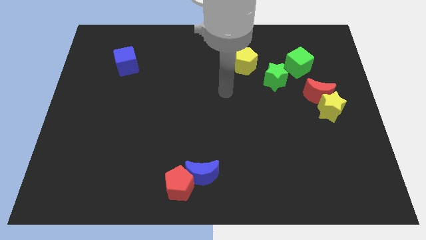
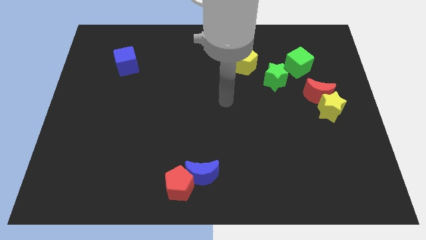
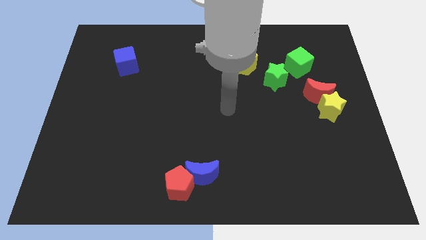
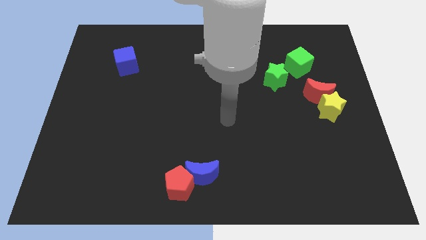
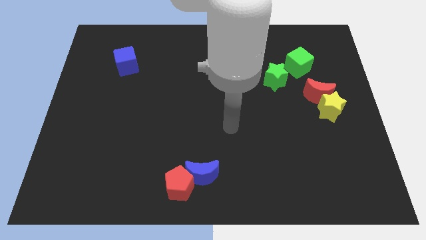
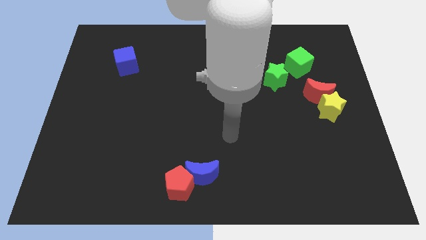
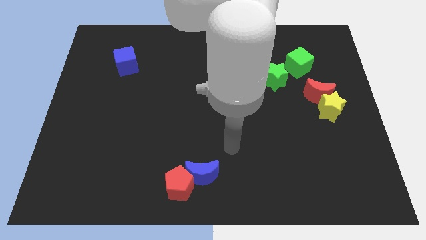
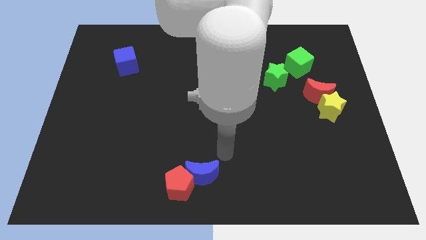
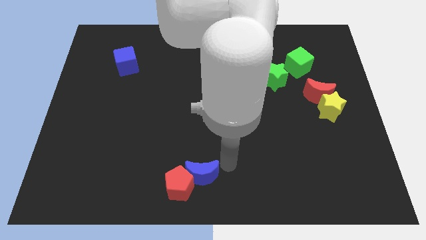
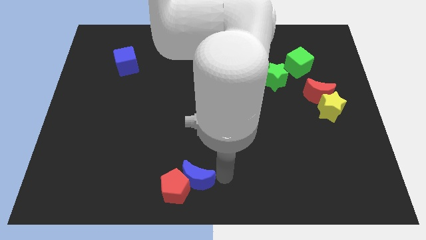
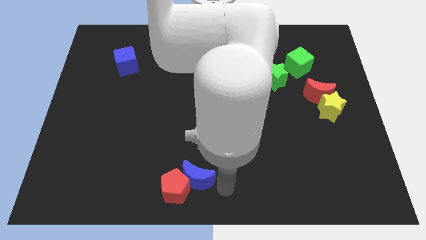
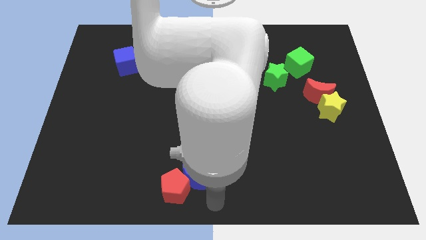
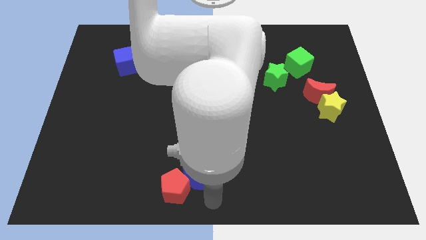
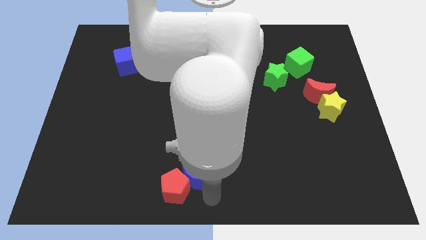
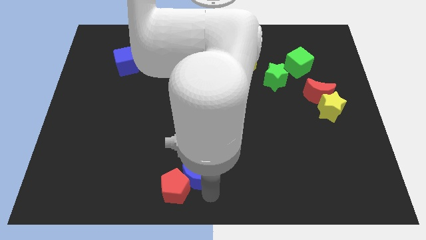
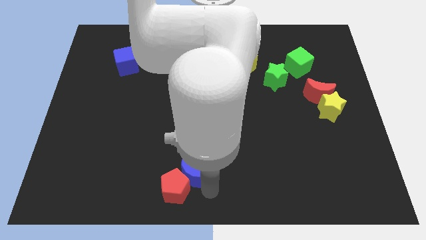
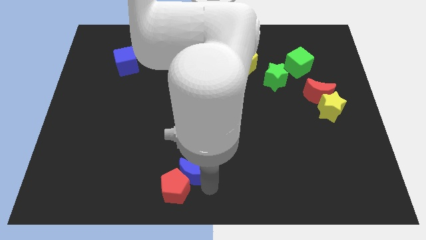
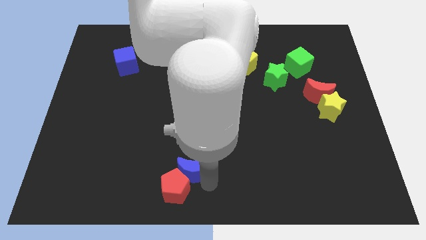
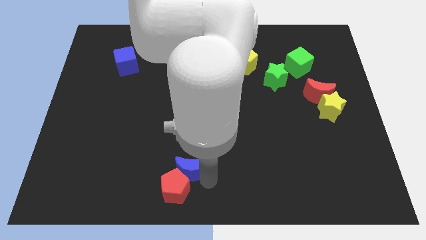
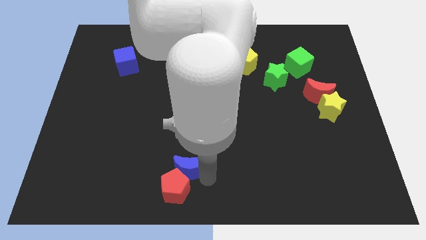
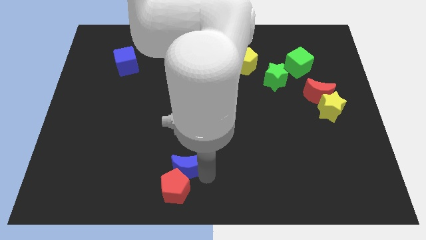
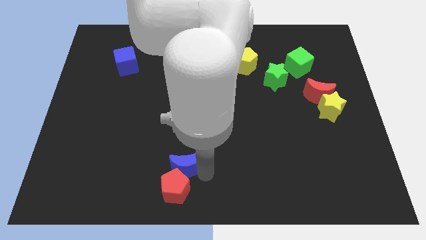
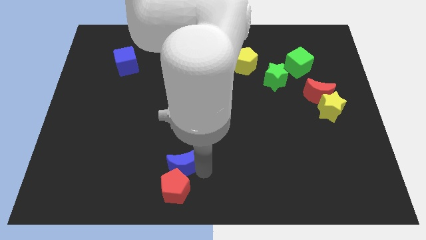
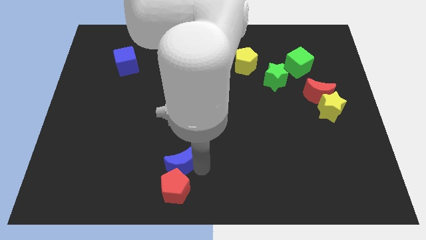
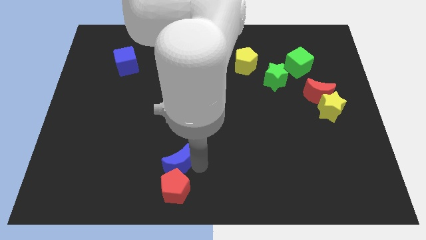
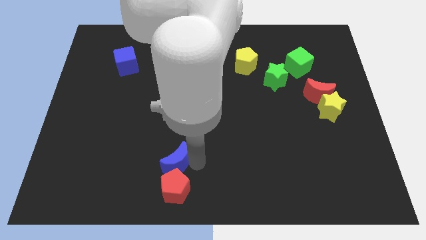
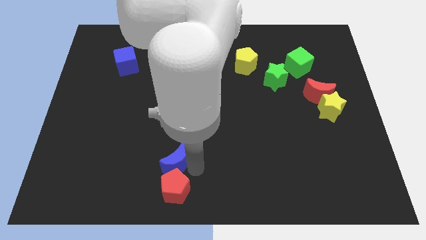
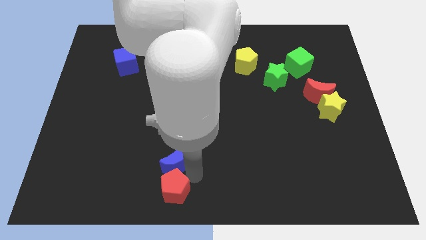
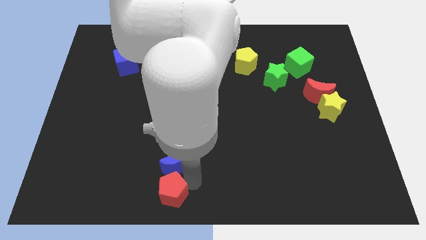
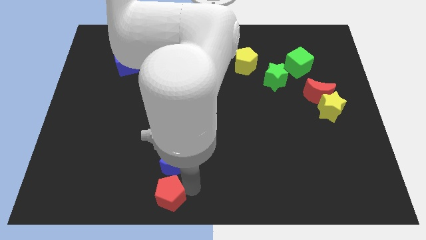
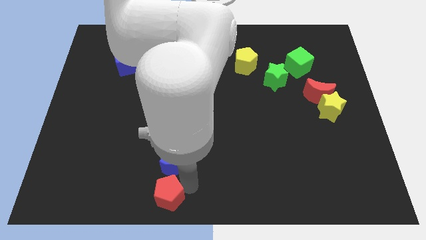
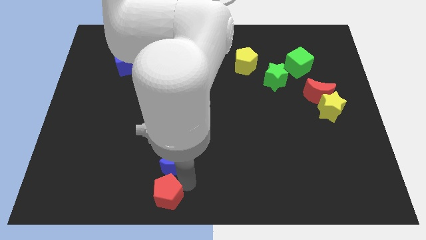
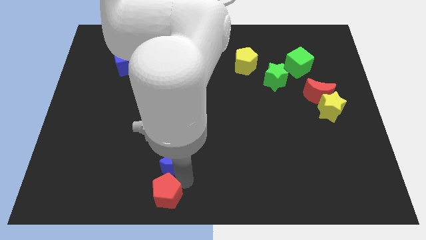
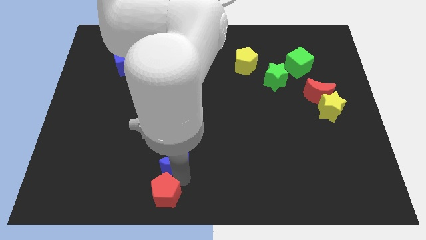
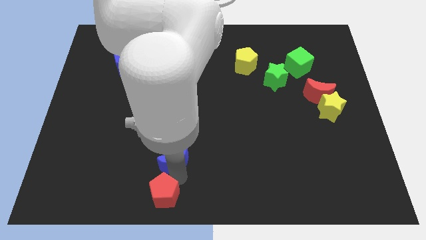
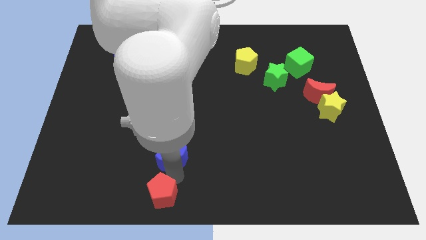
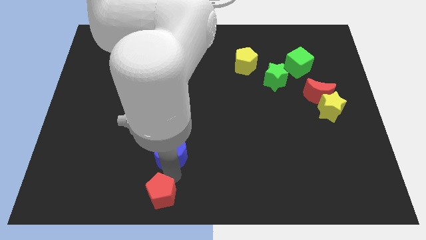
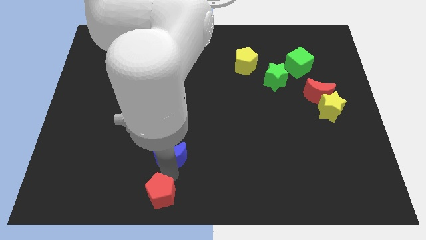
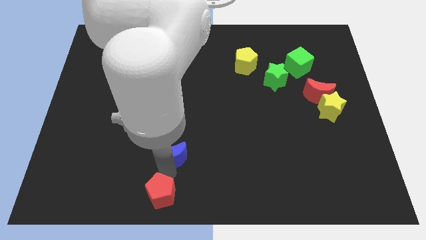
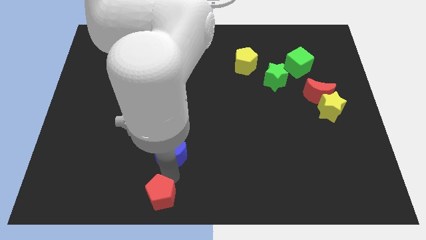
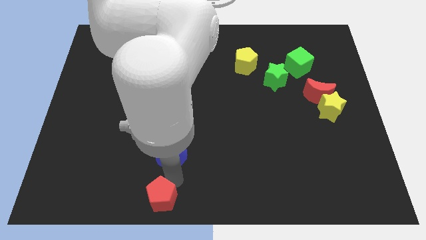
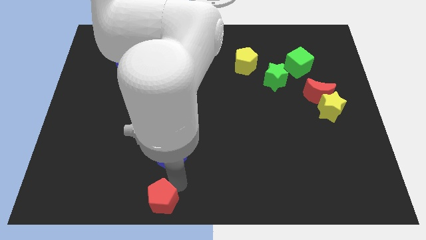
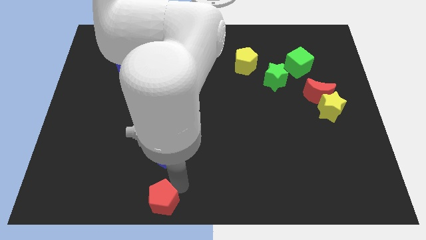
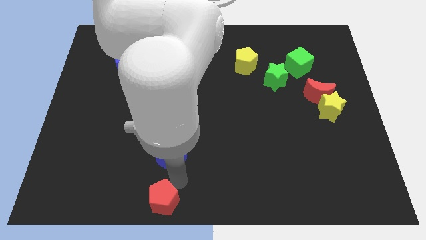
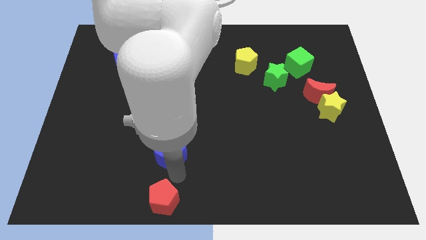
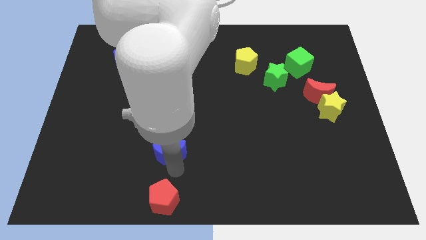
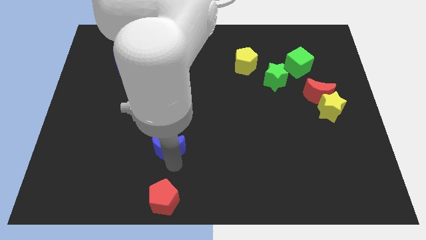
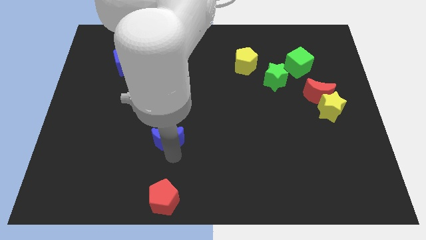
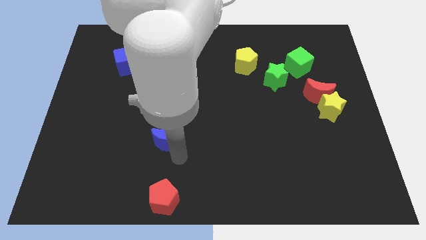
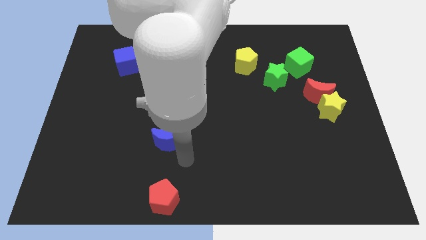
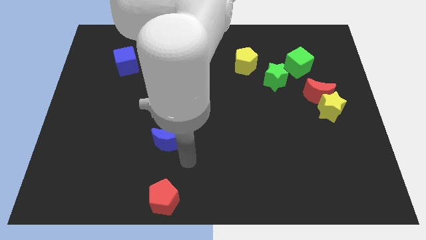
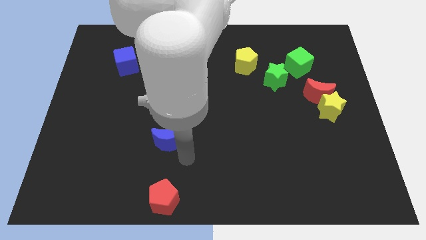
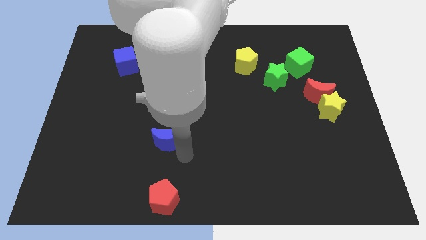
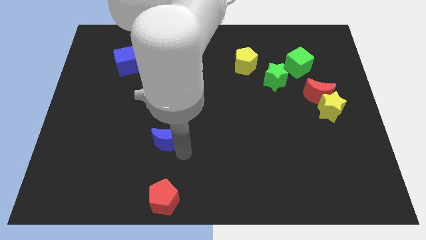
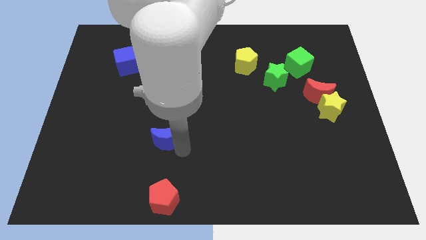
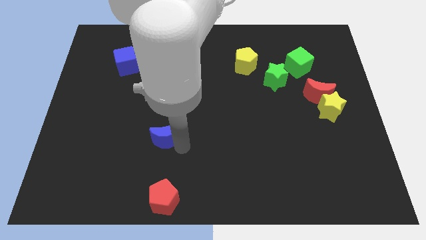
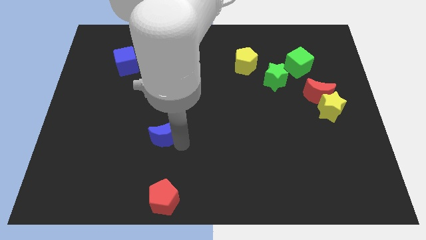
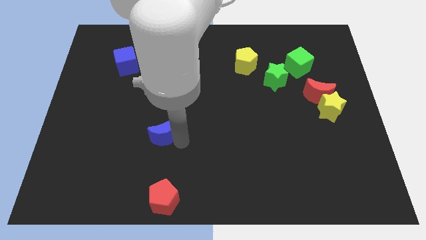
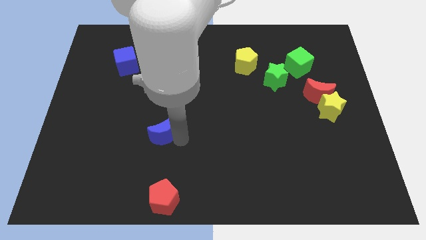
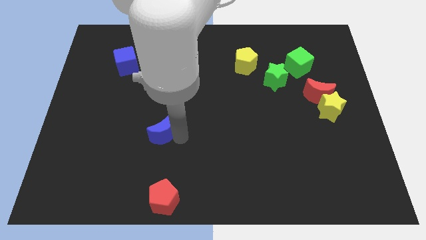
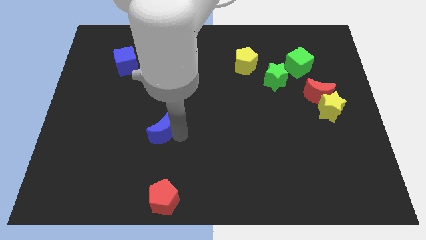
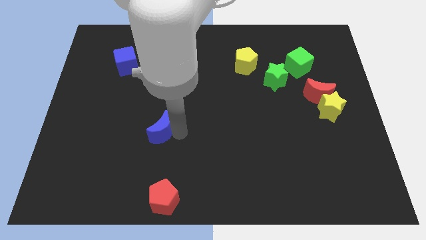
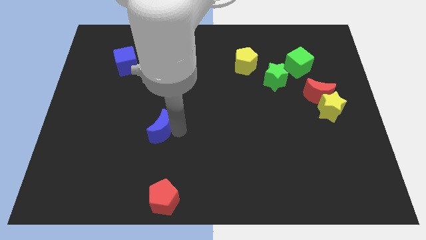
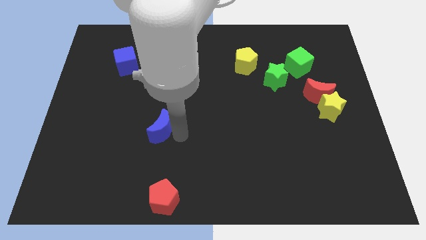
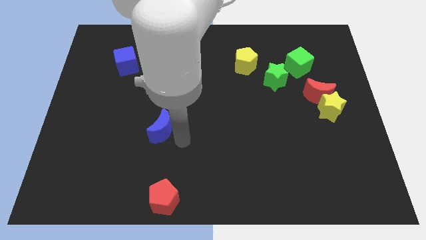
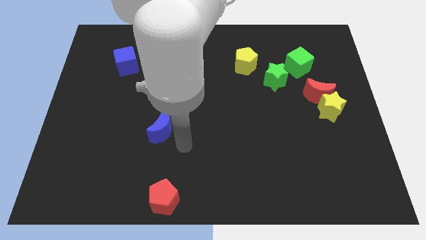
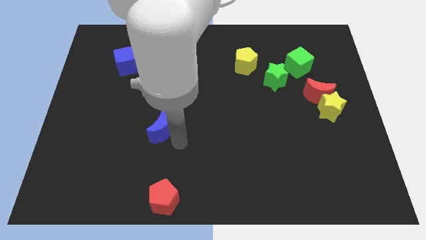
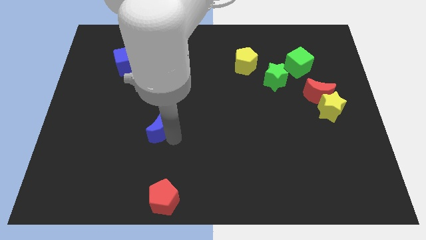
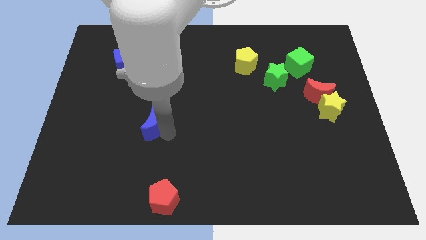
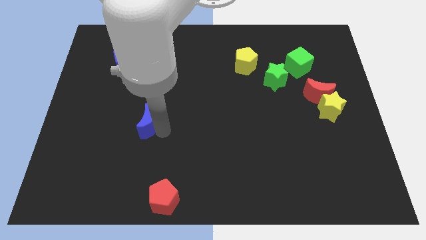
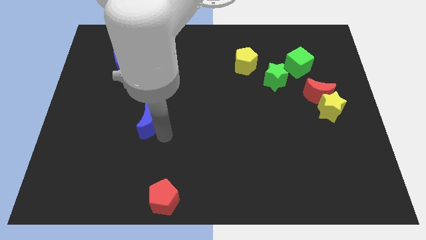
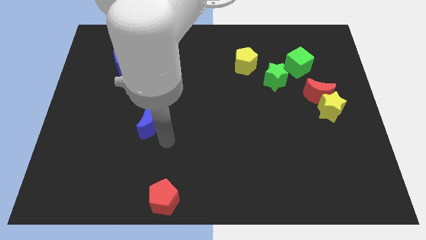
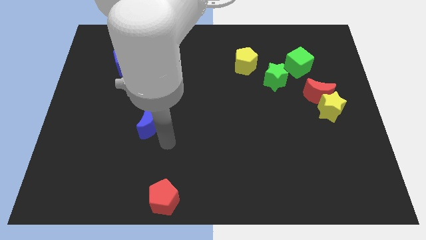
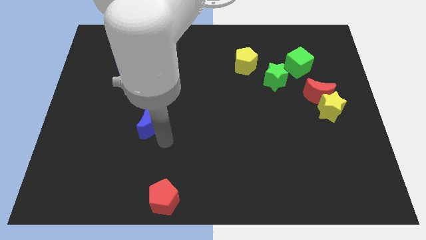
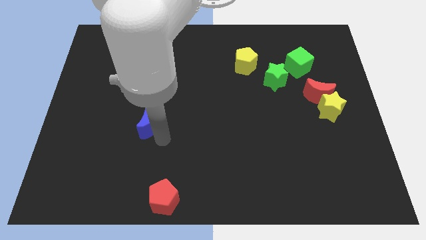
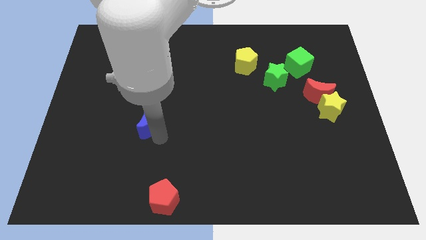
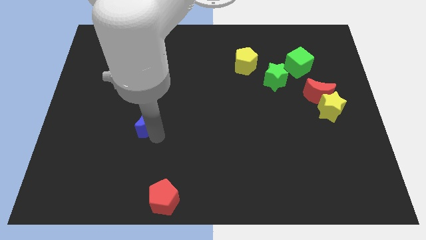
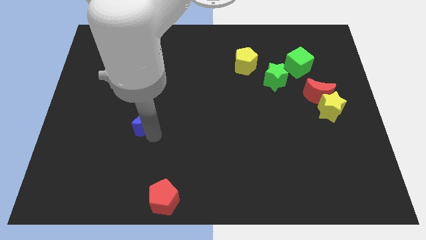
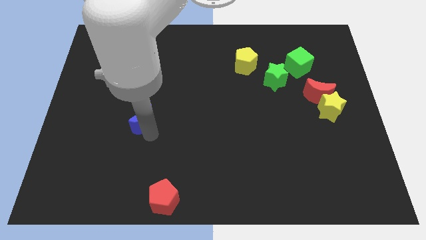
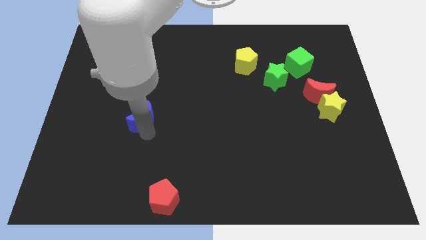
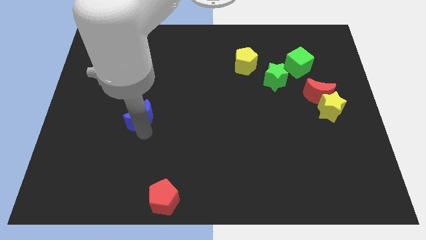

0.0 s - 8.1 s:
slide the blue moon upwards and left diagonally
